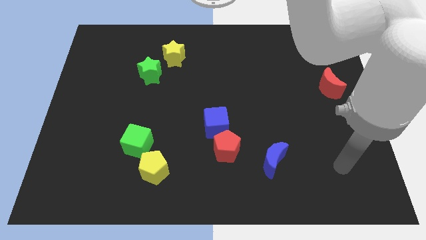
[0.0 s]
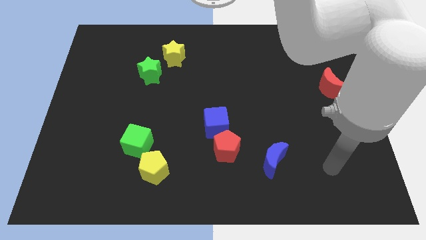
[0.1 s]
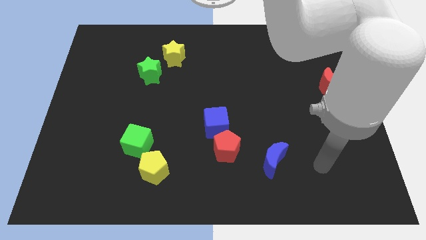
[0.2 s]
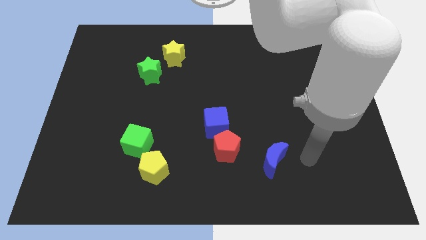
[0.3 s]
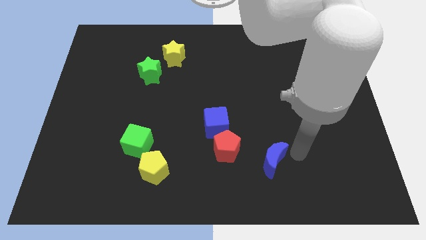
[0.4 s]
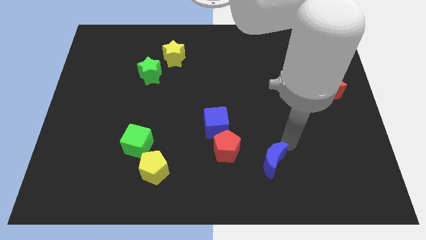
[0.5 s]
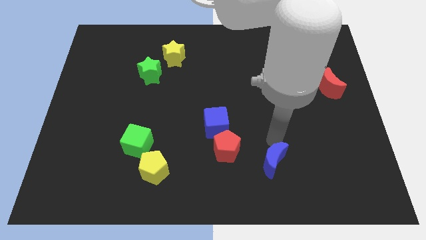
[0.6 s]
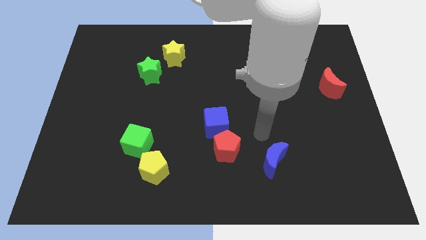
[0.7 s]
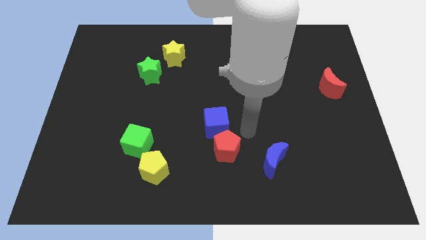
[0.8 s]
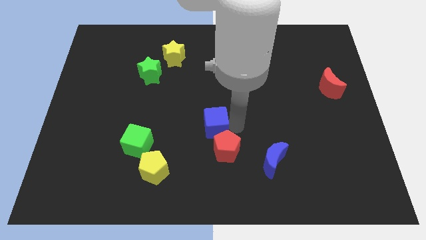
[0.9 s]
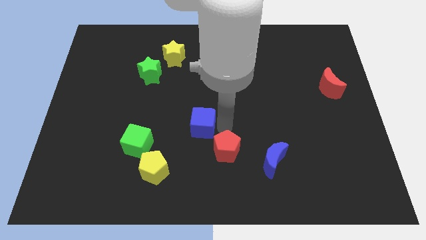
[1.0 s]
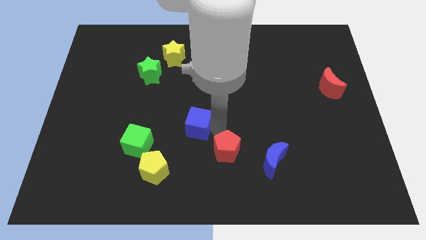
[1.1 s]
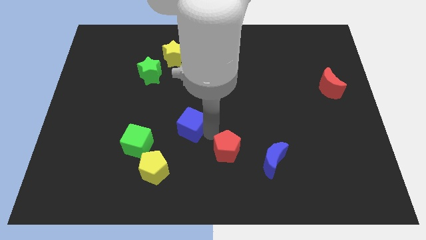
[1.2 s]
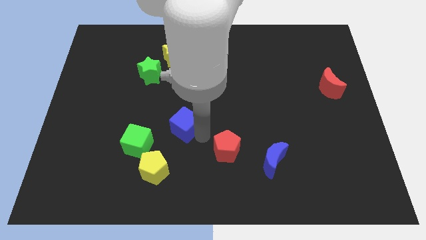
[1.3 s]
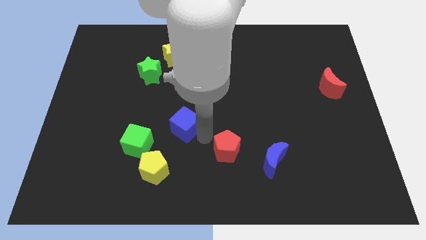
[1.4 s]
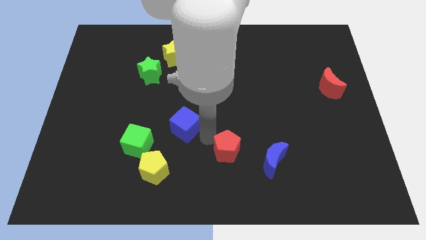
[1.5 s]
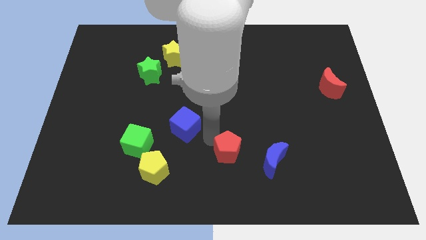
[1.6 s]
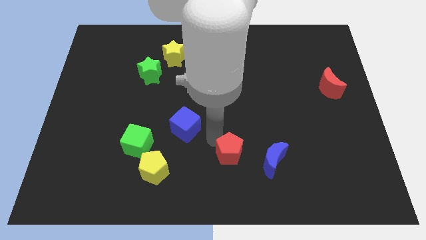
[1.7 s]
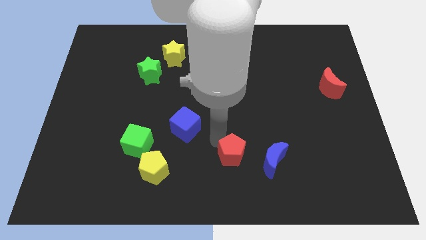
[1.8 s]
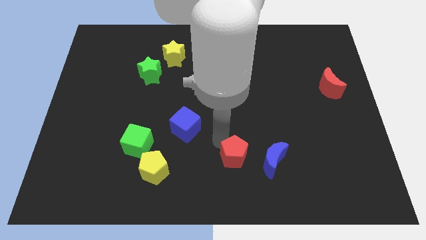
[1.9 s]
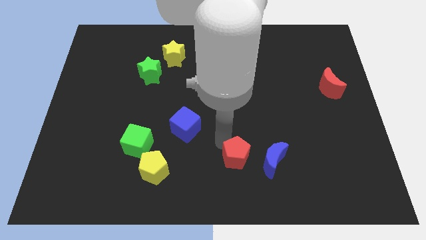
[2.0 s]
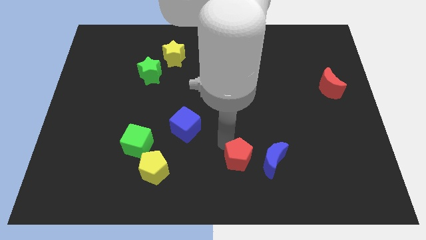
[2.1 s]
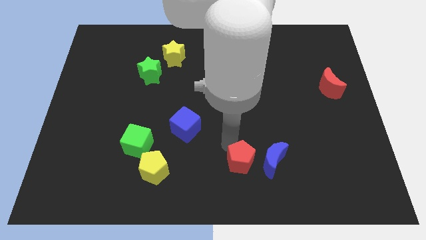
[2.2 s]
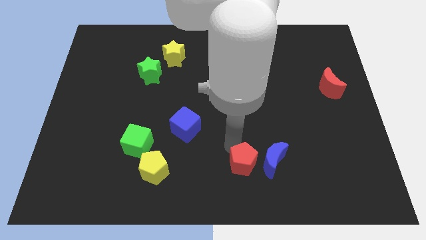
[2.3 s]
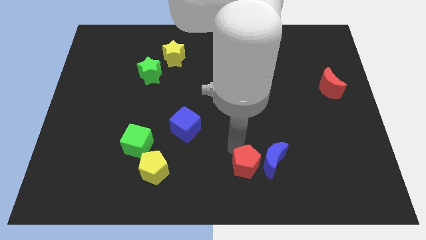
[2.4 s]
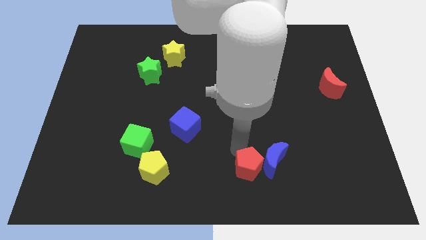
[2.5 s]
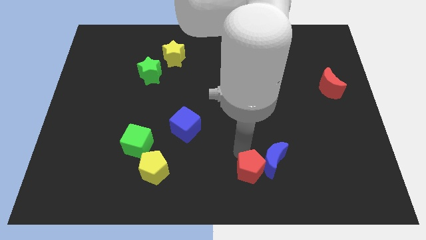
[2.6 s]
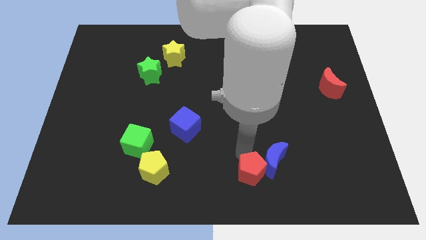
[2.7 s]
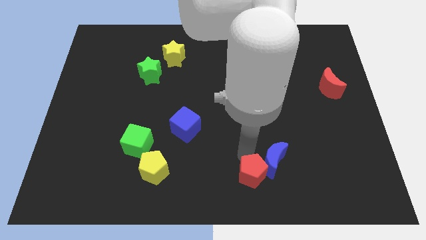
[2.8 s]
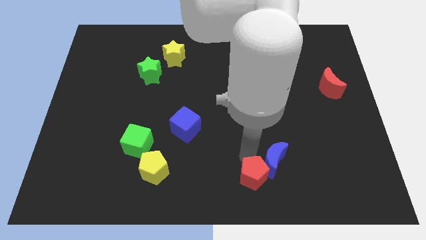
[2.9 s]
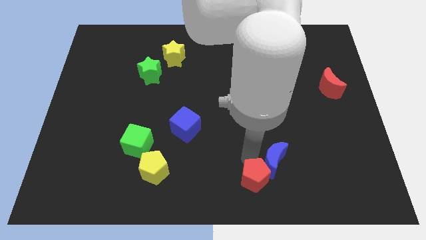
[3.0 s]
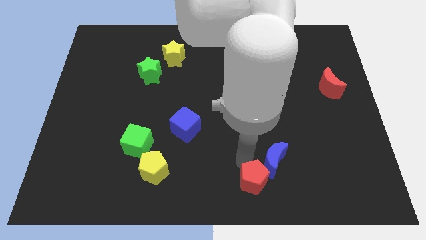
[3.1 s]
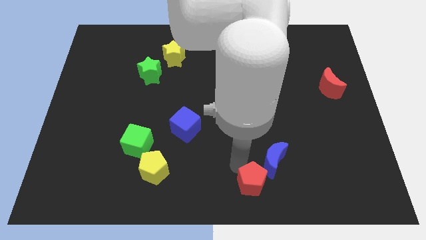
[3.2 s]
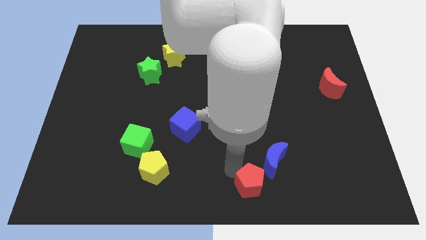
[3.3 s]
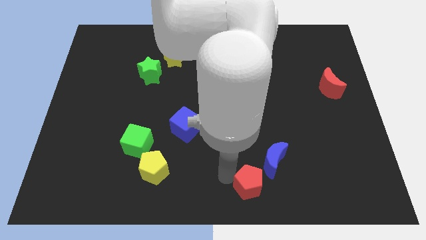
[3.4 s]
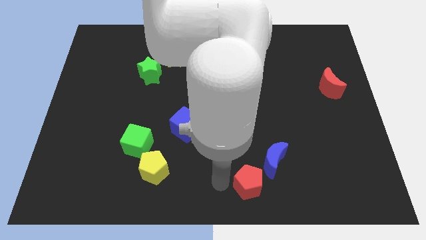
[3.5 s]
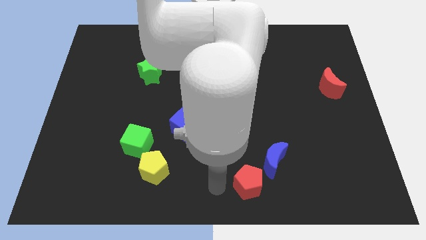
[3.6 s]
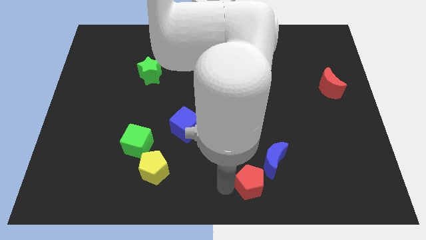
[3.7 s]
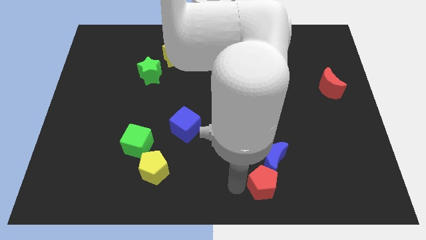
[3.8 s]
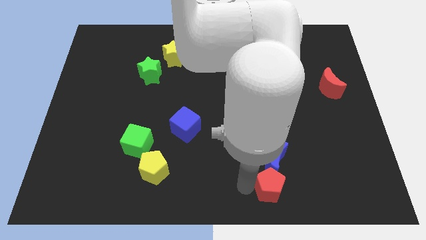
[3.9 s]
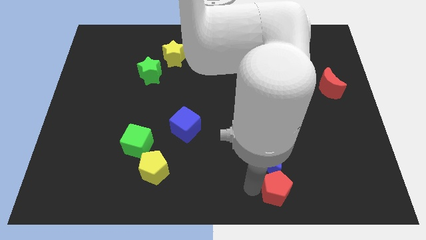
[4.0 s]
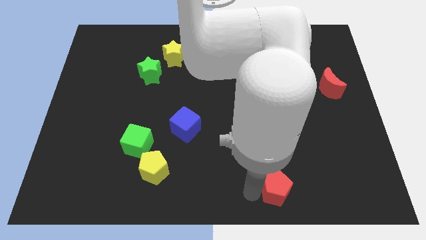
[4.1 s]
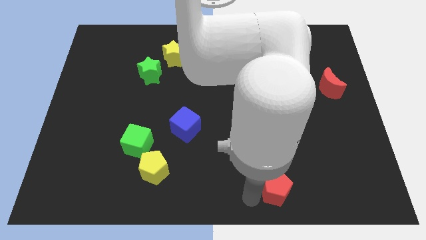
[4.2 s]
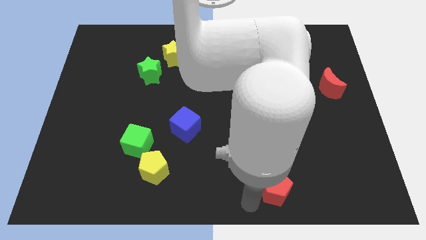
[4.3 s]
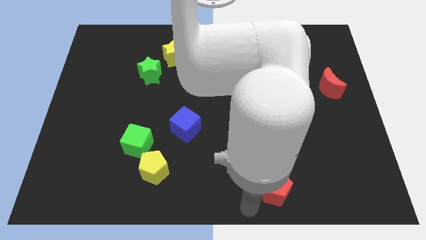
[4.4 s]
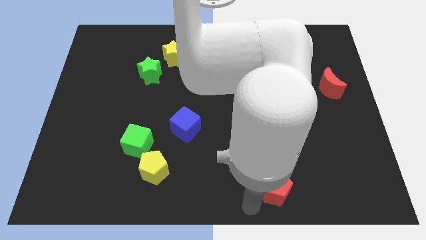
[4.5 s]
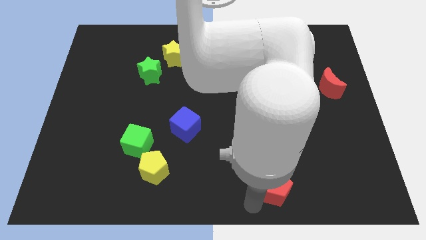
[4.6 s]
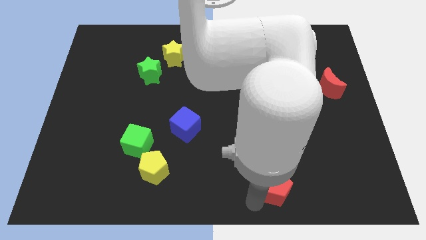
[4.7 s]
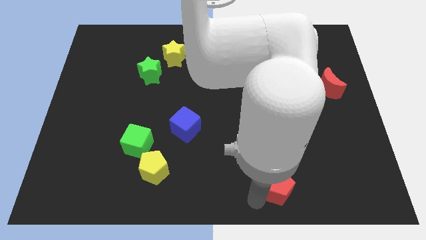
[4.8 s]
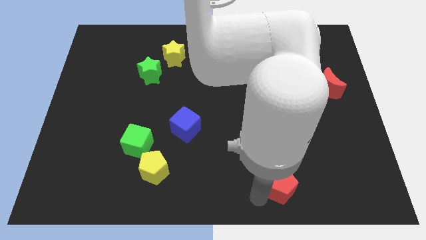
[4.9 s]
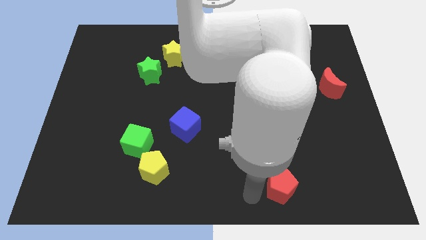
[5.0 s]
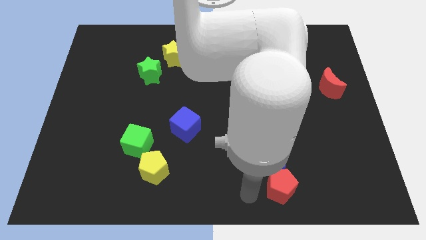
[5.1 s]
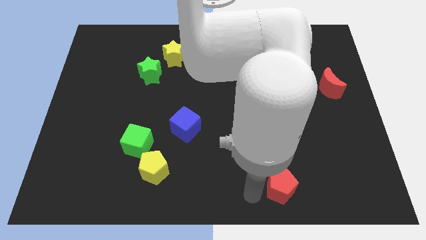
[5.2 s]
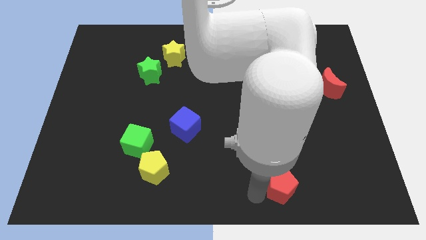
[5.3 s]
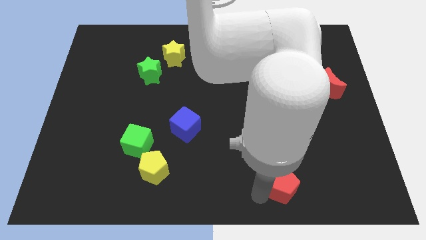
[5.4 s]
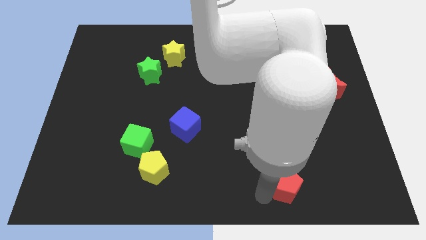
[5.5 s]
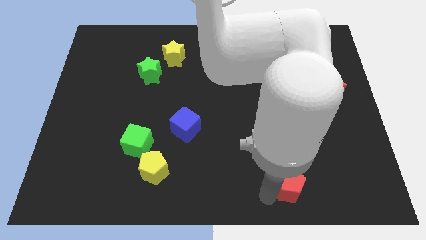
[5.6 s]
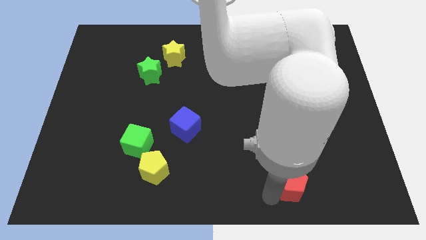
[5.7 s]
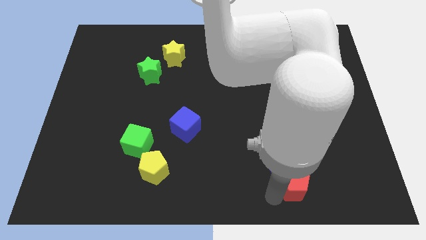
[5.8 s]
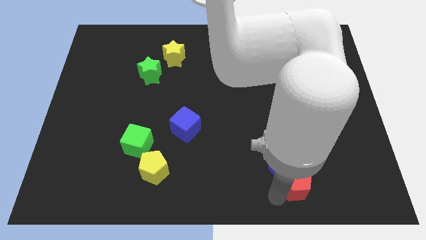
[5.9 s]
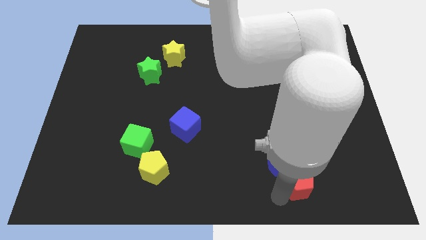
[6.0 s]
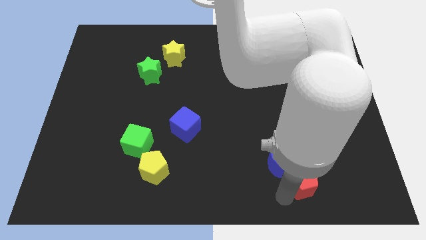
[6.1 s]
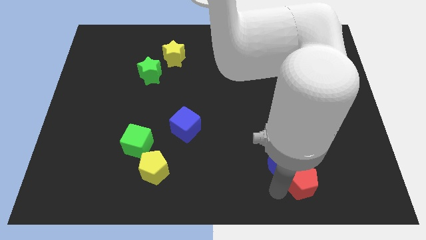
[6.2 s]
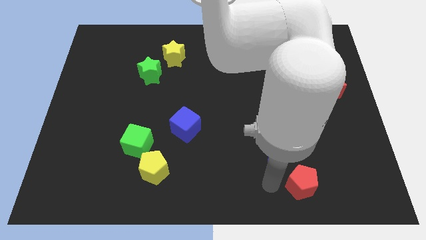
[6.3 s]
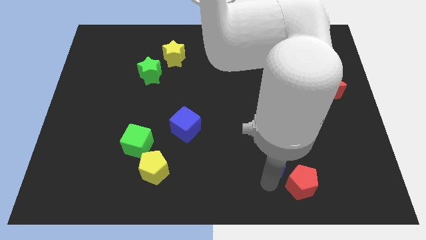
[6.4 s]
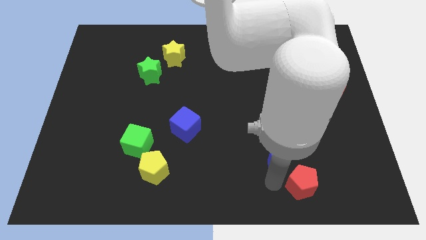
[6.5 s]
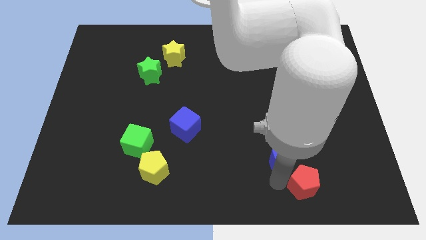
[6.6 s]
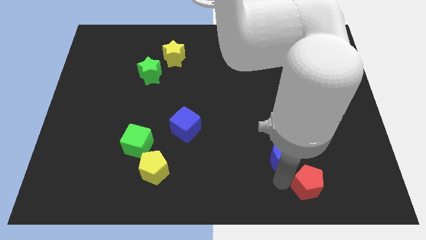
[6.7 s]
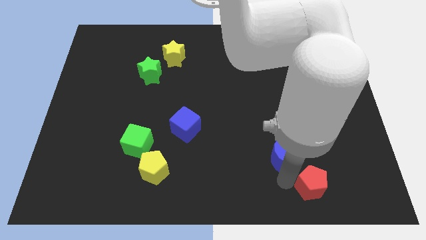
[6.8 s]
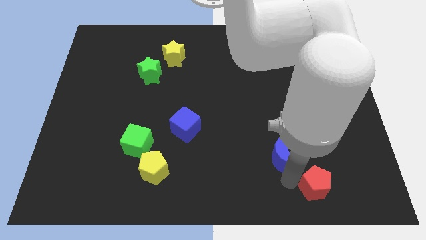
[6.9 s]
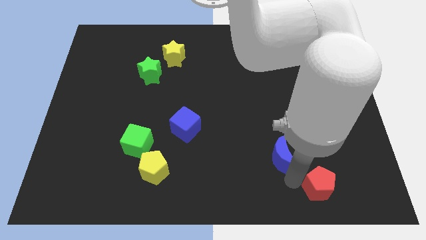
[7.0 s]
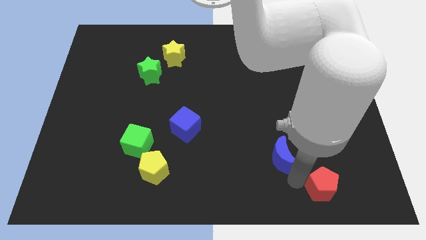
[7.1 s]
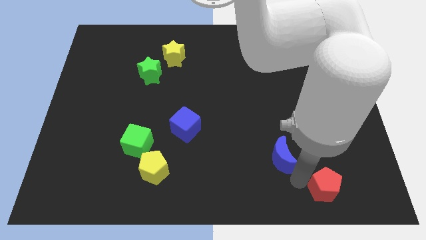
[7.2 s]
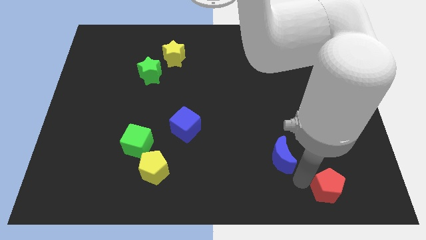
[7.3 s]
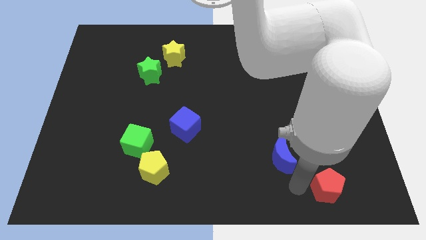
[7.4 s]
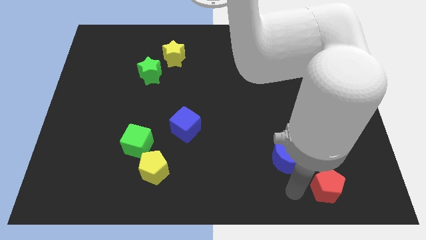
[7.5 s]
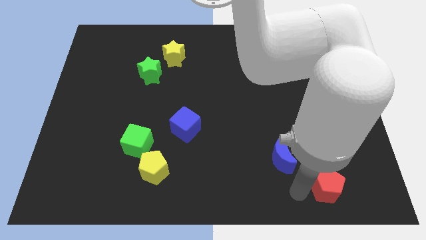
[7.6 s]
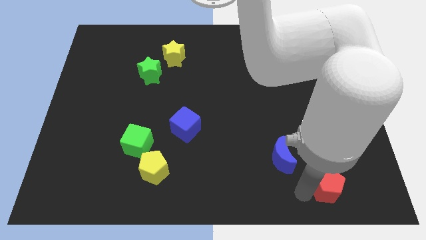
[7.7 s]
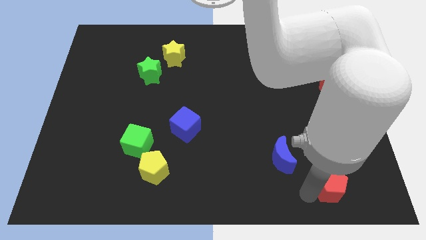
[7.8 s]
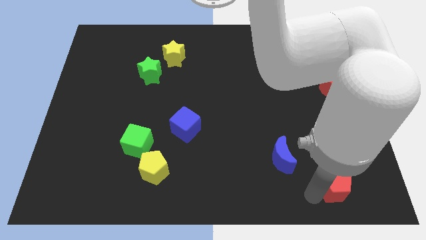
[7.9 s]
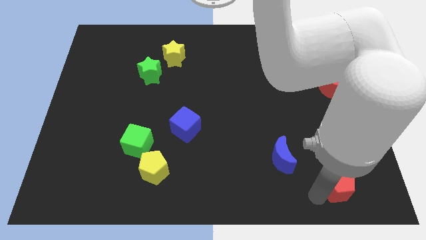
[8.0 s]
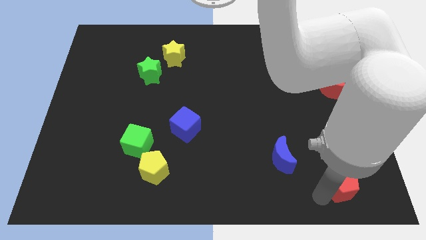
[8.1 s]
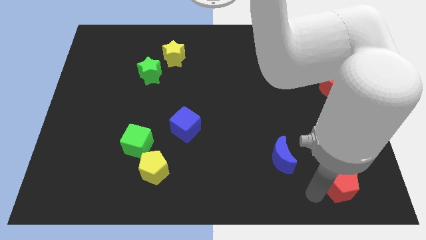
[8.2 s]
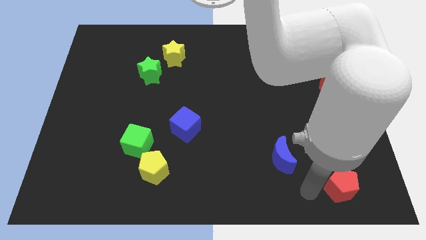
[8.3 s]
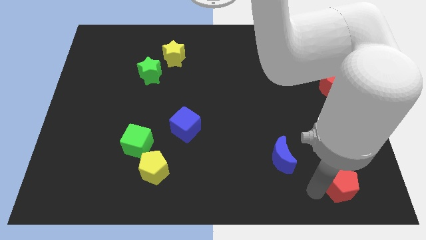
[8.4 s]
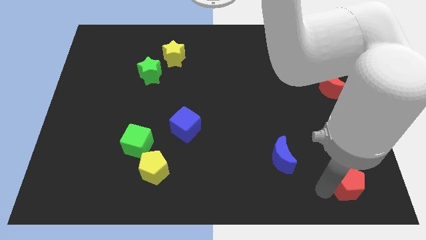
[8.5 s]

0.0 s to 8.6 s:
slide the red pentagon to the lower right corner
